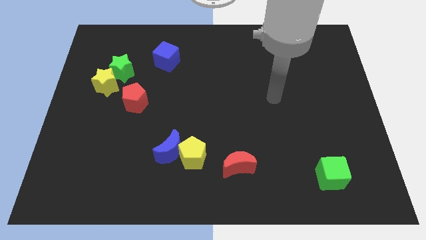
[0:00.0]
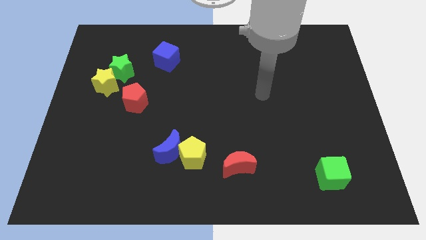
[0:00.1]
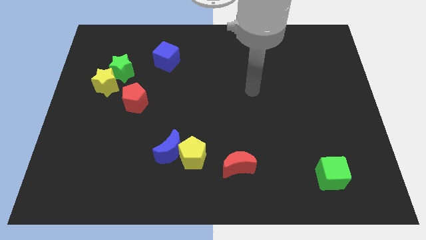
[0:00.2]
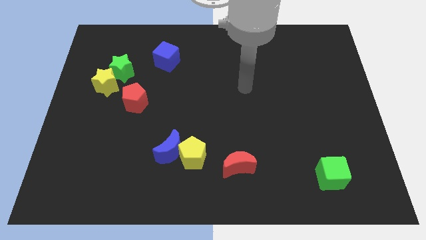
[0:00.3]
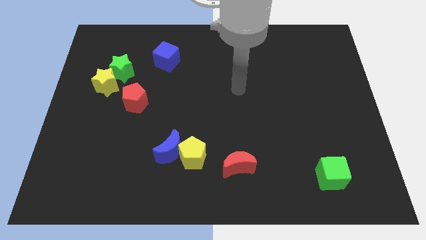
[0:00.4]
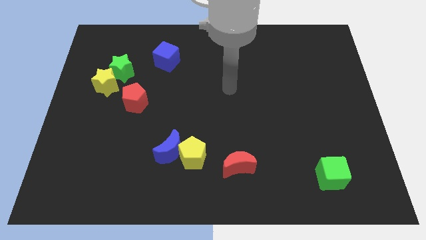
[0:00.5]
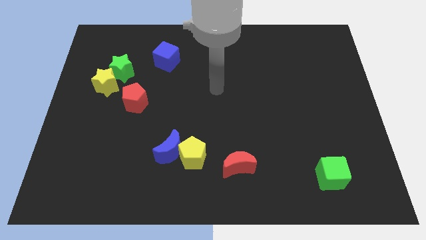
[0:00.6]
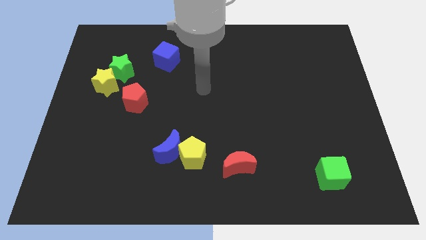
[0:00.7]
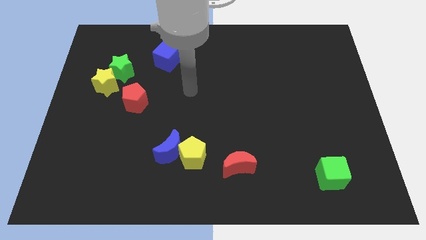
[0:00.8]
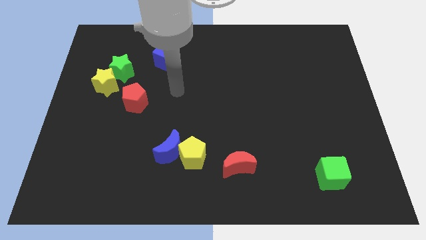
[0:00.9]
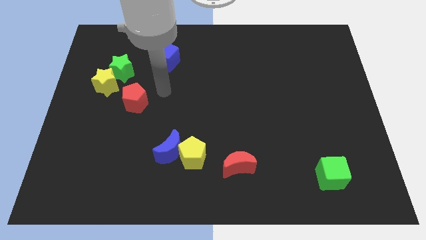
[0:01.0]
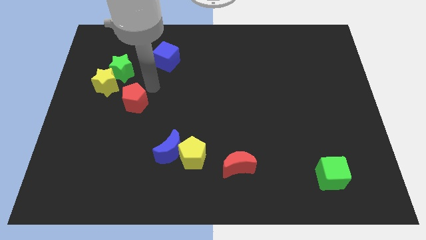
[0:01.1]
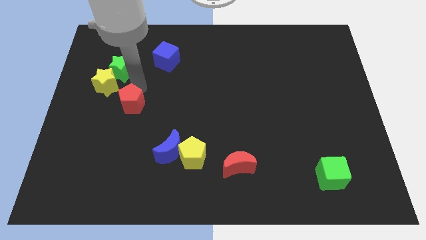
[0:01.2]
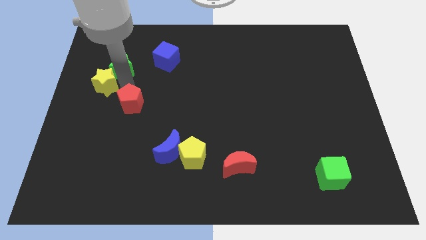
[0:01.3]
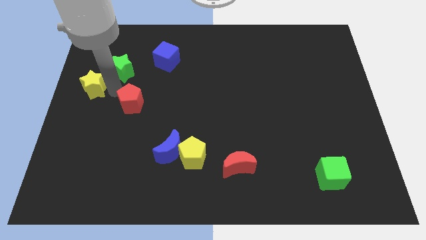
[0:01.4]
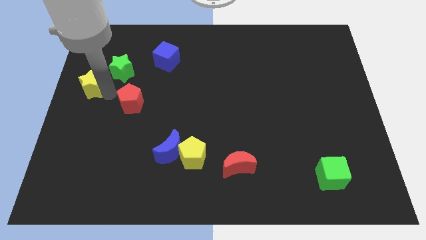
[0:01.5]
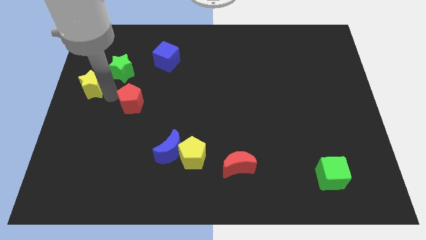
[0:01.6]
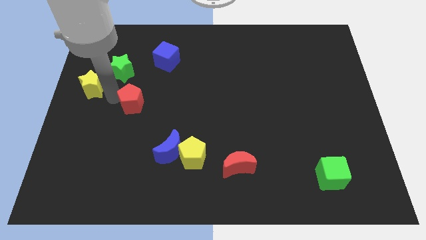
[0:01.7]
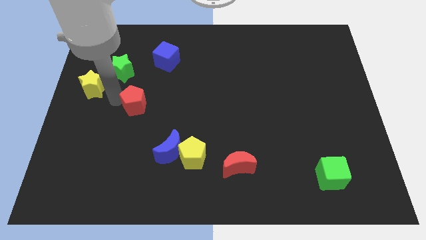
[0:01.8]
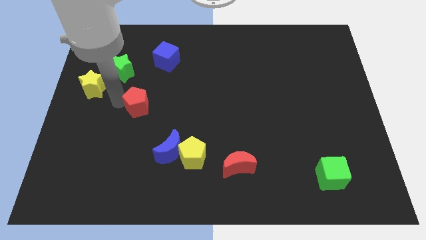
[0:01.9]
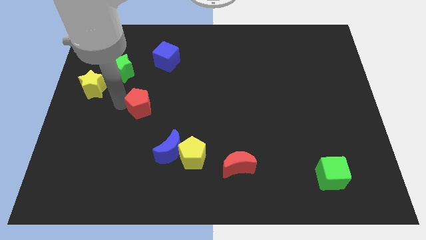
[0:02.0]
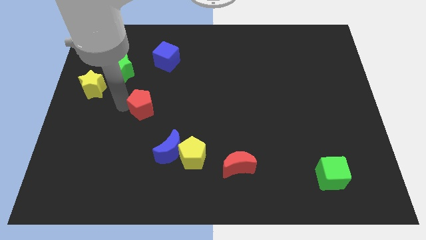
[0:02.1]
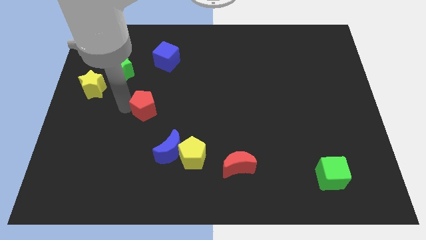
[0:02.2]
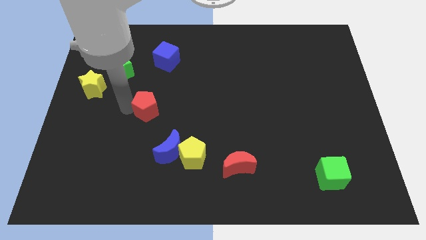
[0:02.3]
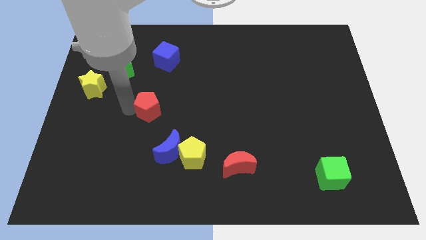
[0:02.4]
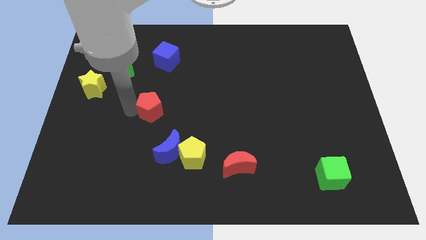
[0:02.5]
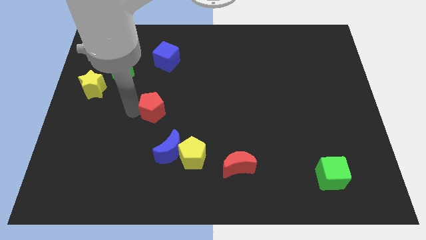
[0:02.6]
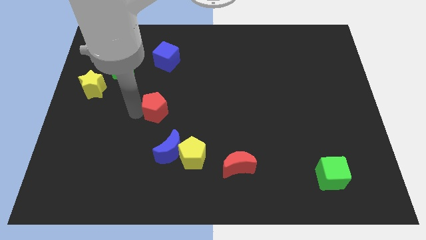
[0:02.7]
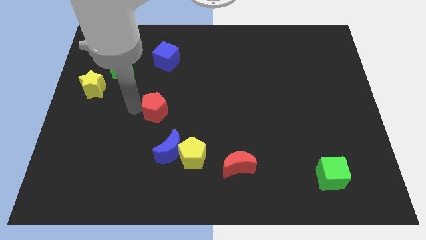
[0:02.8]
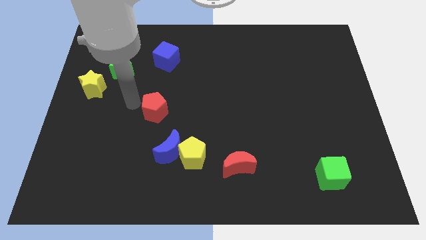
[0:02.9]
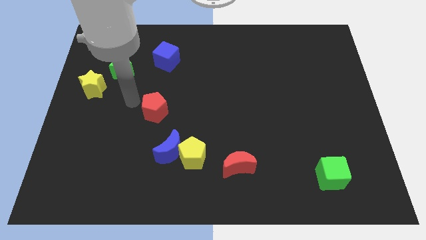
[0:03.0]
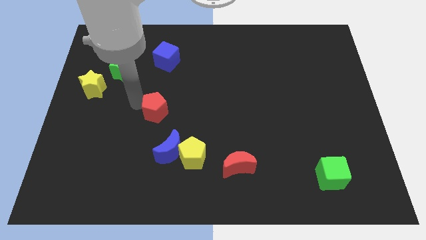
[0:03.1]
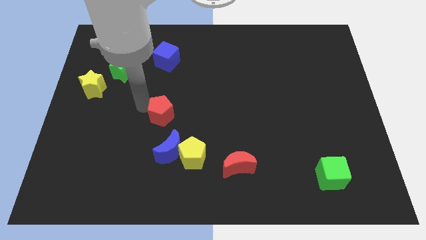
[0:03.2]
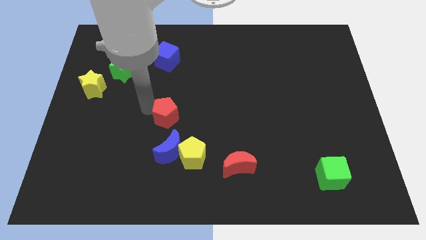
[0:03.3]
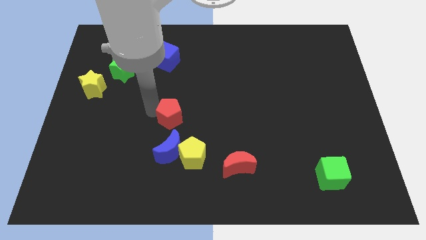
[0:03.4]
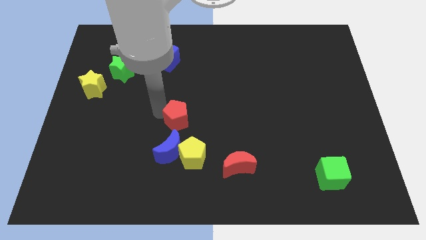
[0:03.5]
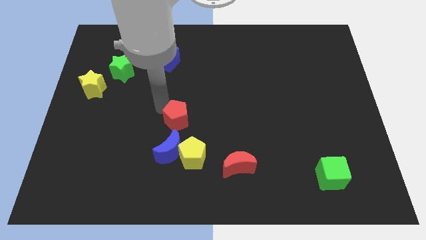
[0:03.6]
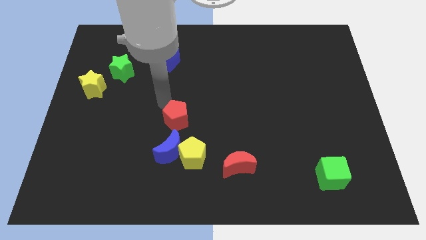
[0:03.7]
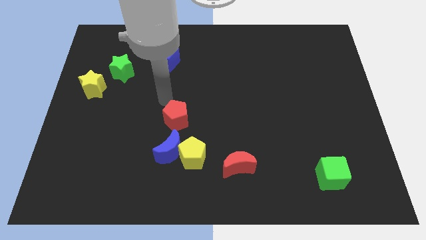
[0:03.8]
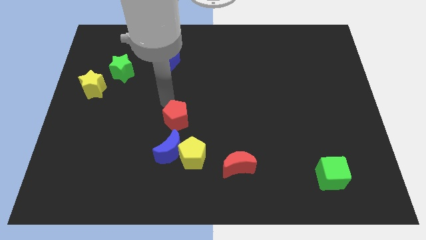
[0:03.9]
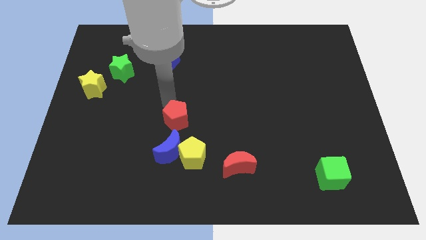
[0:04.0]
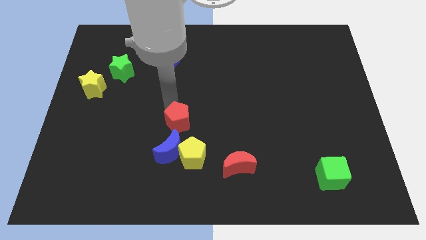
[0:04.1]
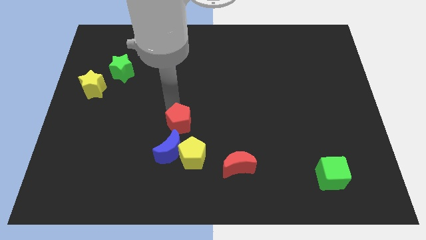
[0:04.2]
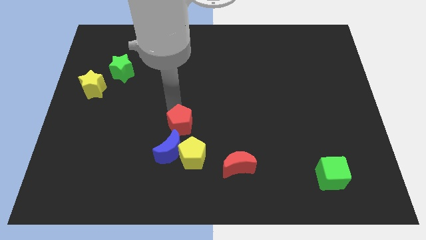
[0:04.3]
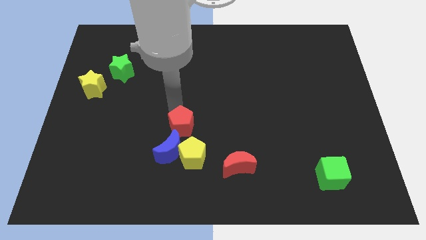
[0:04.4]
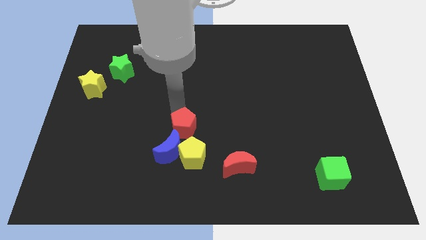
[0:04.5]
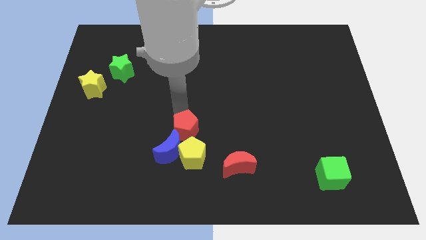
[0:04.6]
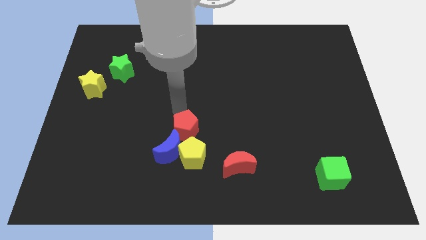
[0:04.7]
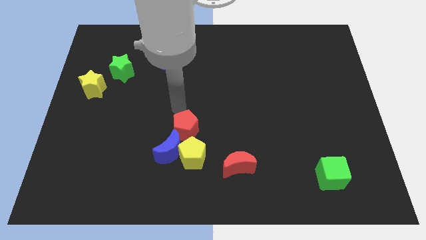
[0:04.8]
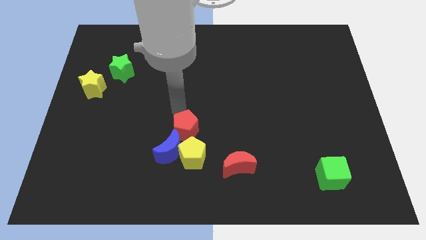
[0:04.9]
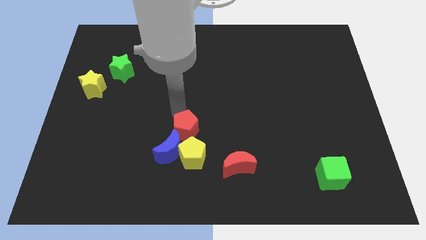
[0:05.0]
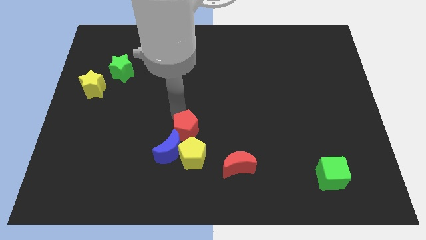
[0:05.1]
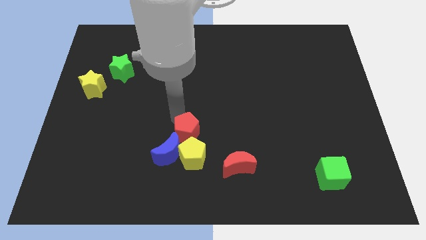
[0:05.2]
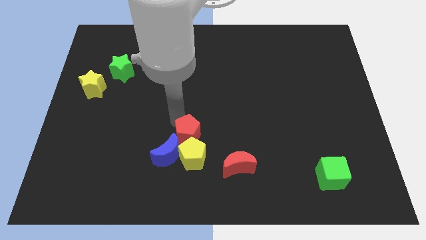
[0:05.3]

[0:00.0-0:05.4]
move the red pentagon next to the yellow pentagon

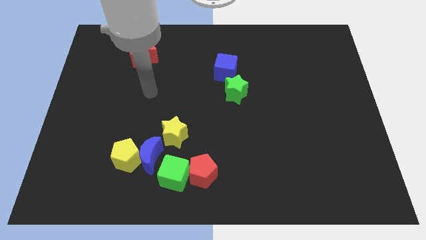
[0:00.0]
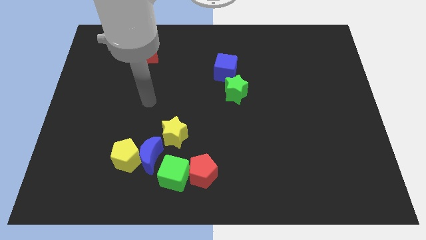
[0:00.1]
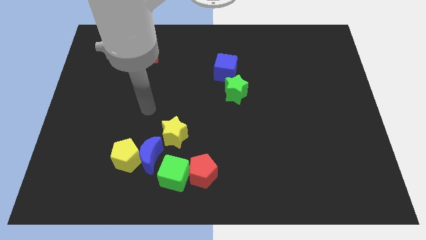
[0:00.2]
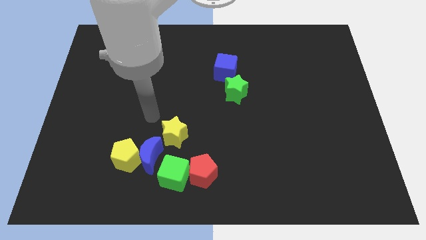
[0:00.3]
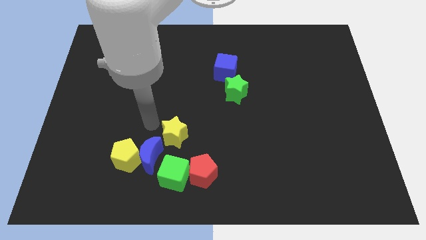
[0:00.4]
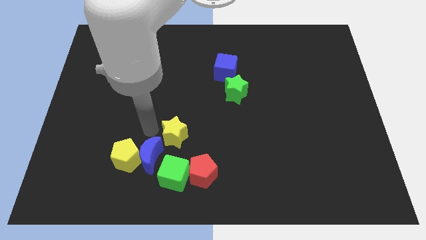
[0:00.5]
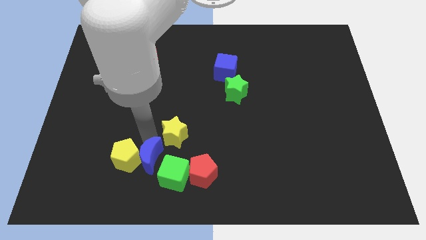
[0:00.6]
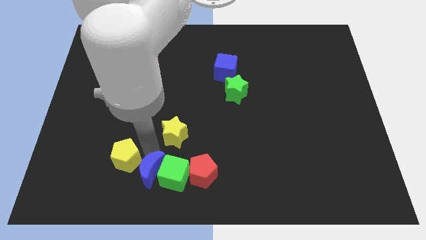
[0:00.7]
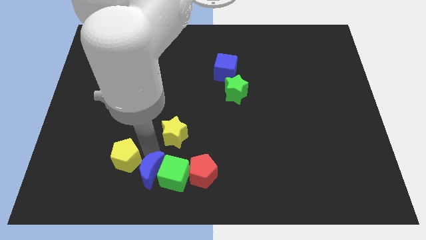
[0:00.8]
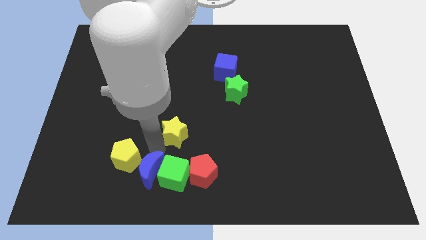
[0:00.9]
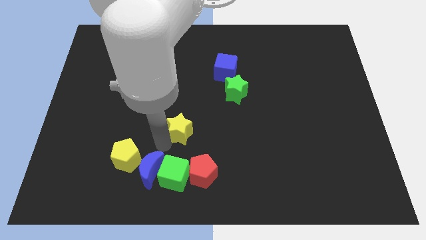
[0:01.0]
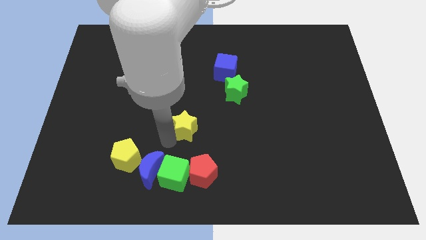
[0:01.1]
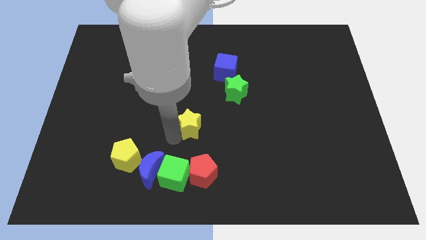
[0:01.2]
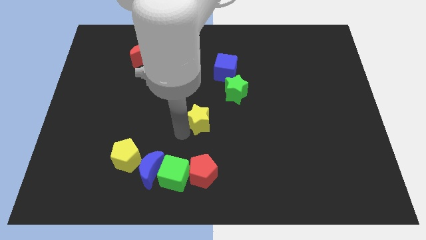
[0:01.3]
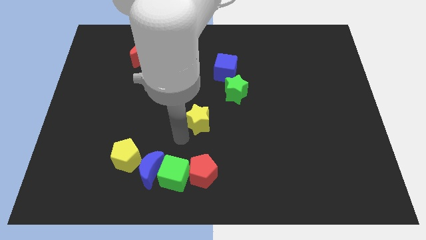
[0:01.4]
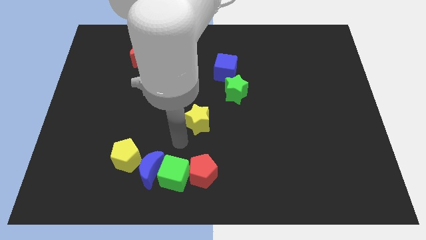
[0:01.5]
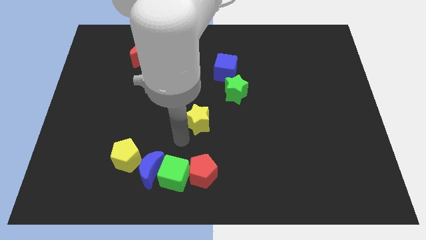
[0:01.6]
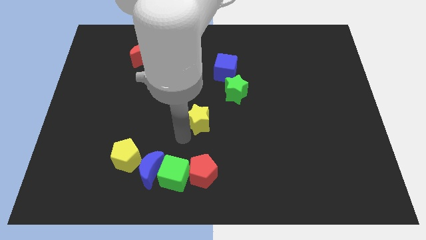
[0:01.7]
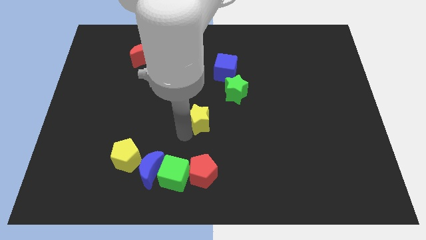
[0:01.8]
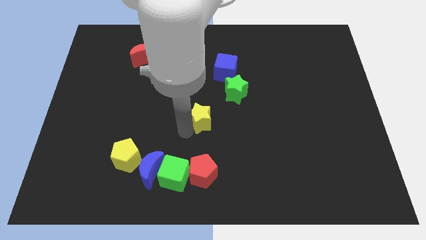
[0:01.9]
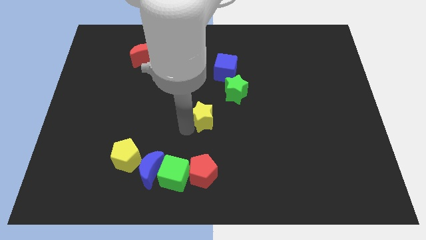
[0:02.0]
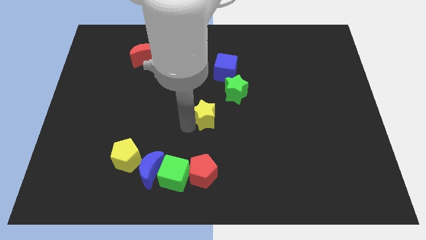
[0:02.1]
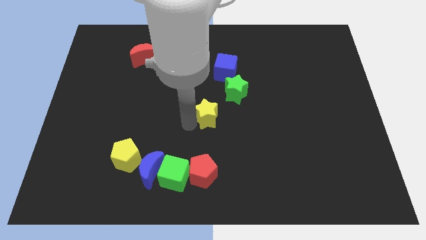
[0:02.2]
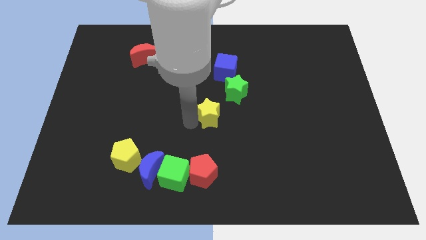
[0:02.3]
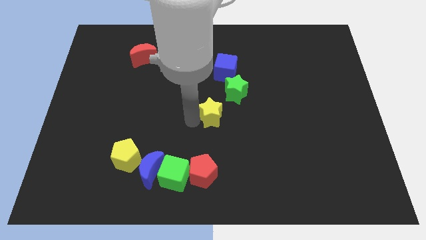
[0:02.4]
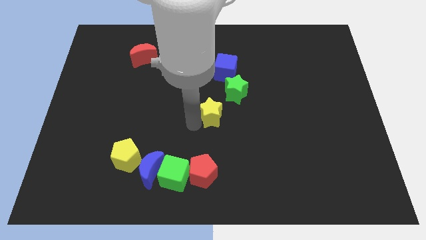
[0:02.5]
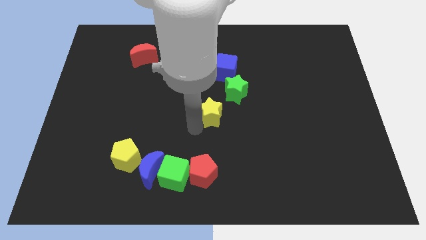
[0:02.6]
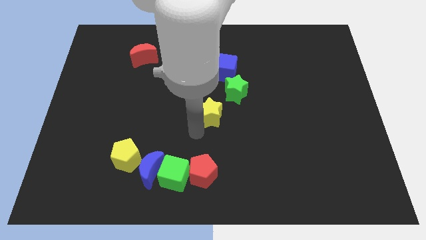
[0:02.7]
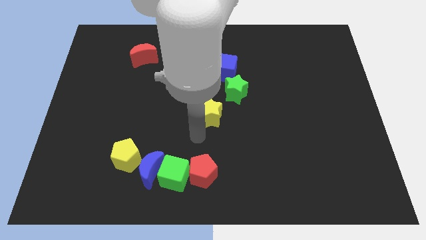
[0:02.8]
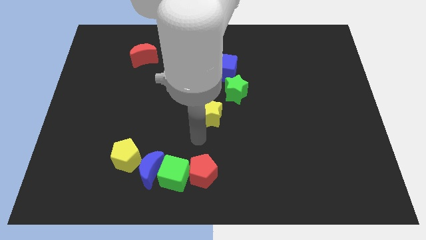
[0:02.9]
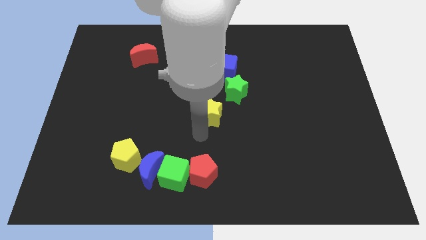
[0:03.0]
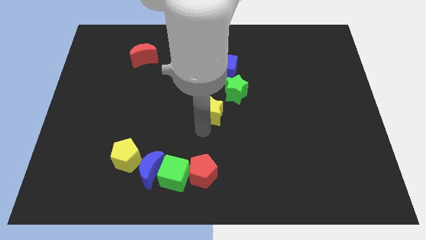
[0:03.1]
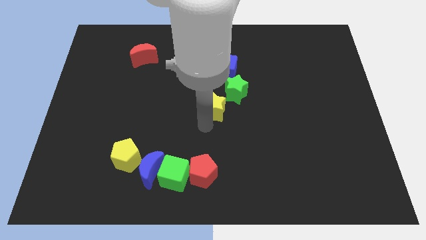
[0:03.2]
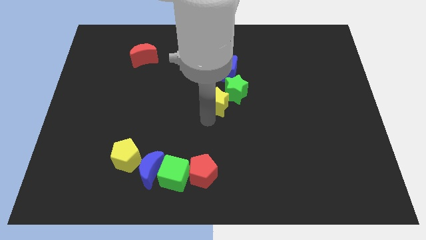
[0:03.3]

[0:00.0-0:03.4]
push the yellow star close to the green star
